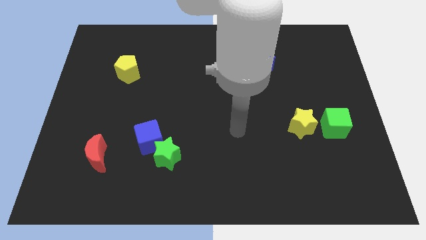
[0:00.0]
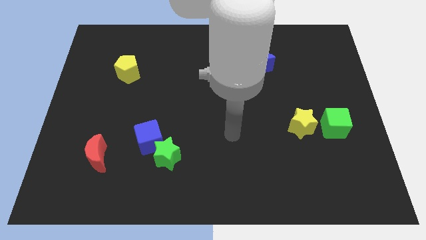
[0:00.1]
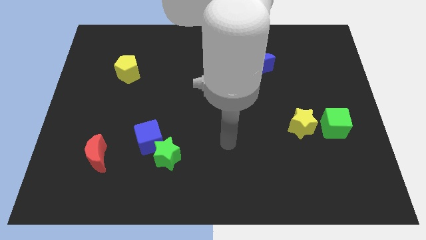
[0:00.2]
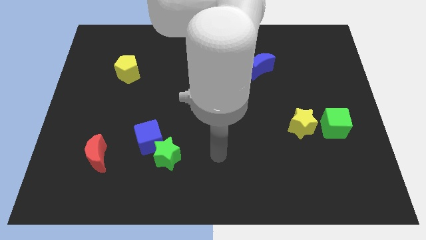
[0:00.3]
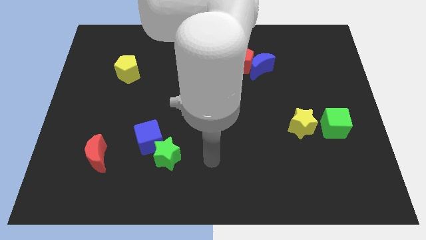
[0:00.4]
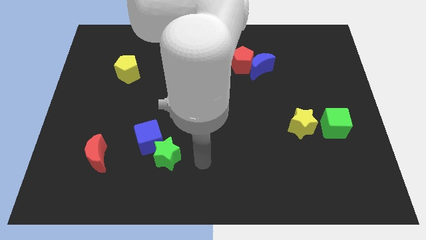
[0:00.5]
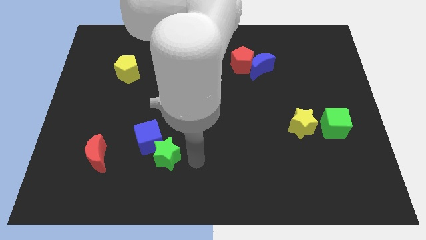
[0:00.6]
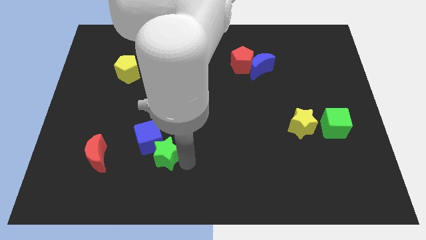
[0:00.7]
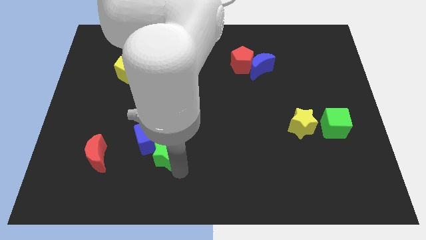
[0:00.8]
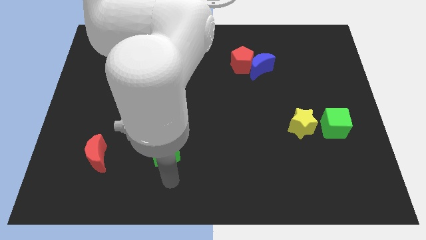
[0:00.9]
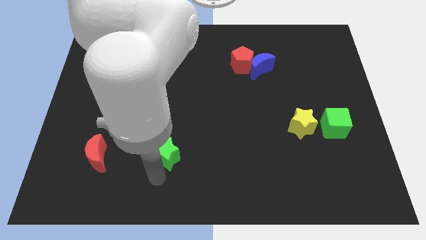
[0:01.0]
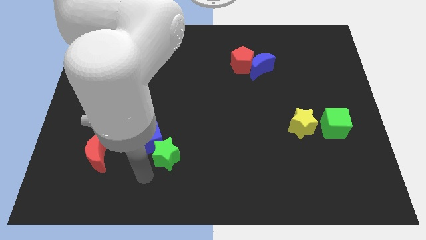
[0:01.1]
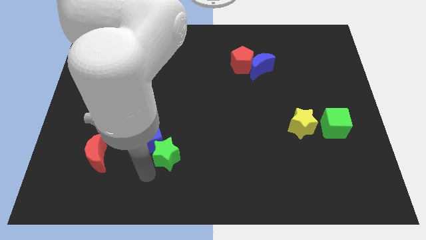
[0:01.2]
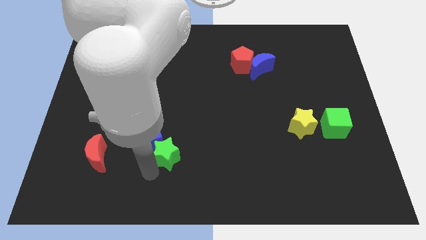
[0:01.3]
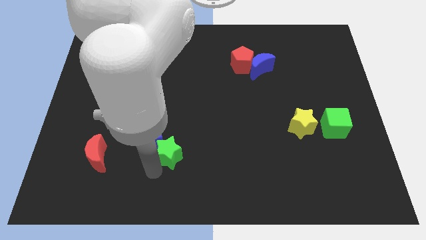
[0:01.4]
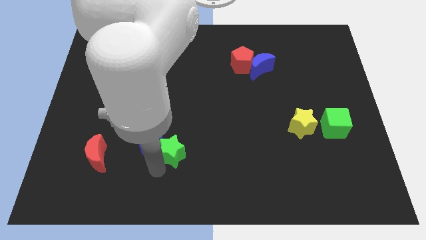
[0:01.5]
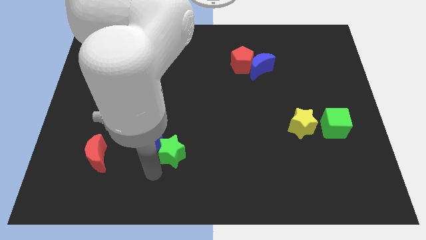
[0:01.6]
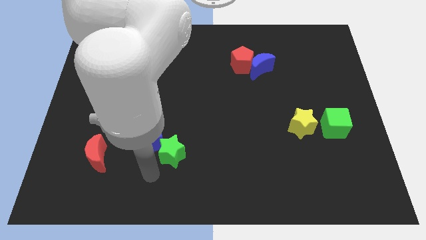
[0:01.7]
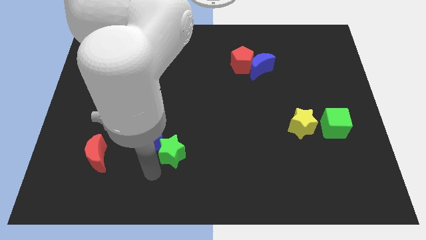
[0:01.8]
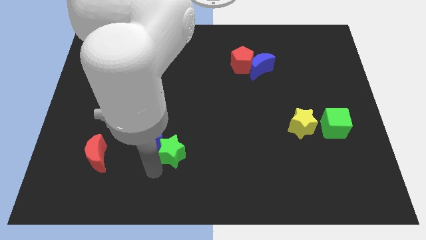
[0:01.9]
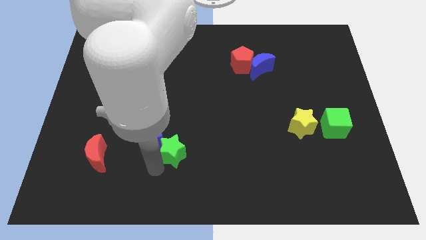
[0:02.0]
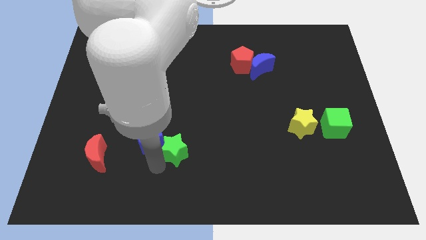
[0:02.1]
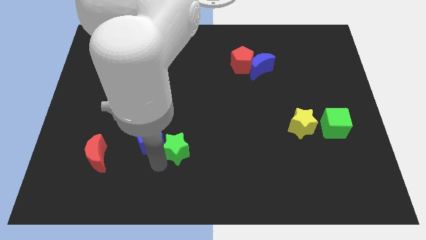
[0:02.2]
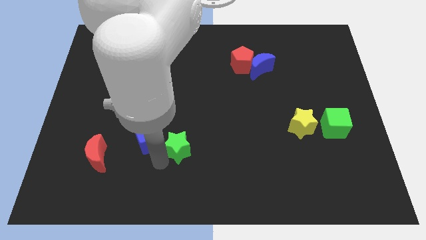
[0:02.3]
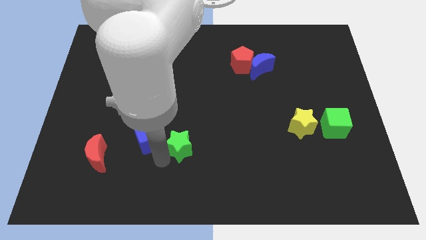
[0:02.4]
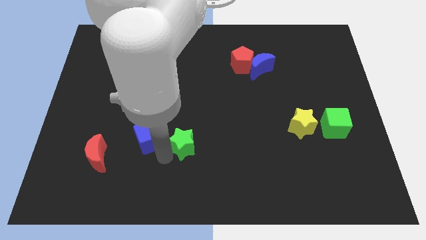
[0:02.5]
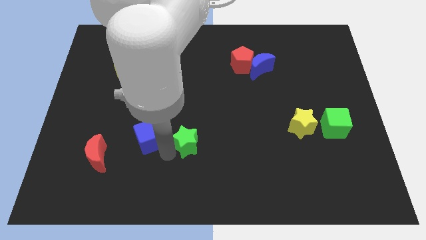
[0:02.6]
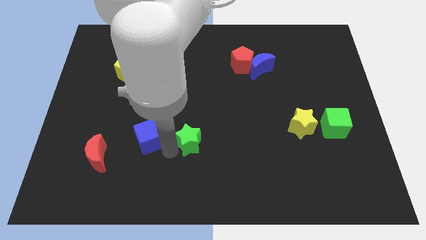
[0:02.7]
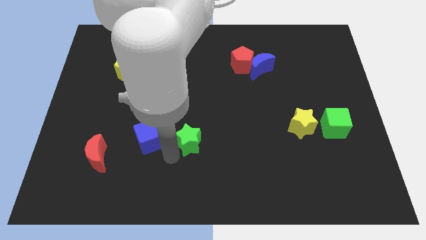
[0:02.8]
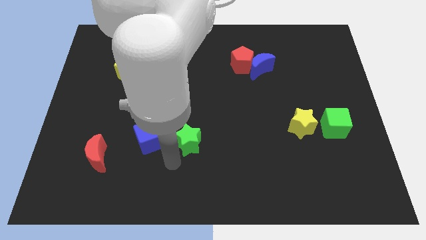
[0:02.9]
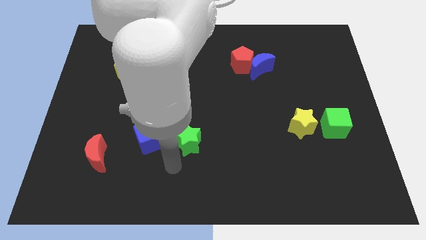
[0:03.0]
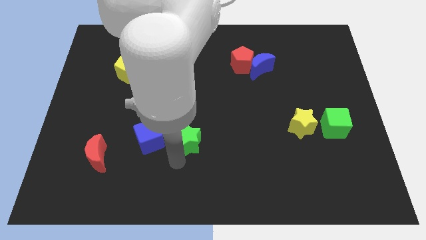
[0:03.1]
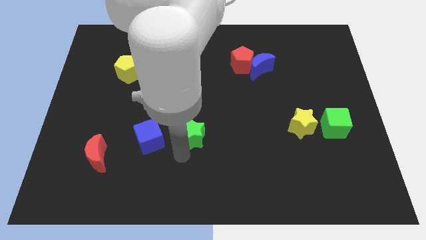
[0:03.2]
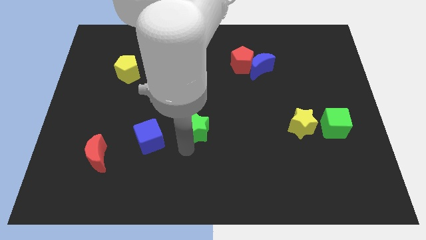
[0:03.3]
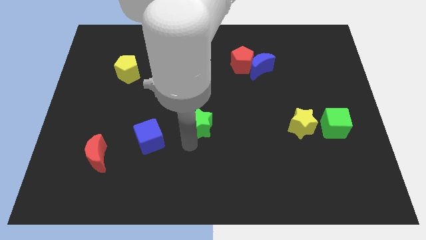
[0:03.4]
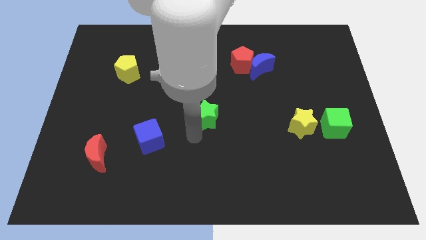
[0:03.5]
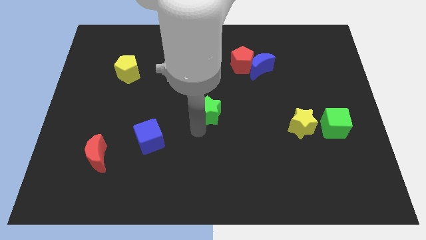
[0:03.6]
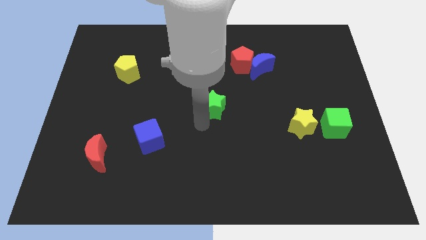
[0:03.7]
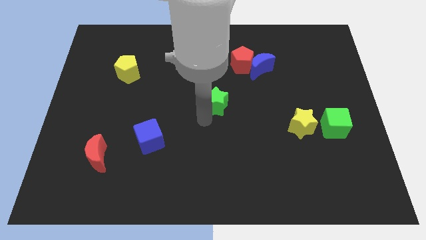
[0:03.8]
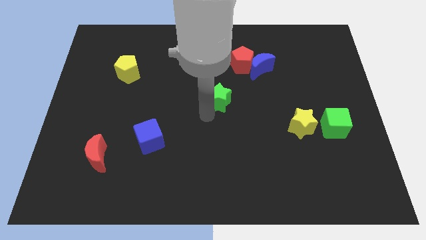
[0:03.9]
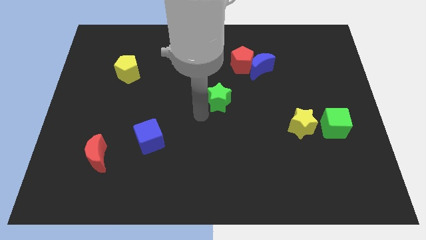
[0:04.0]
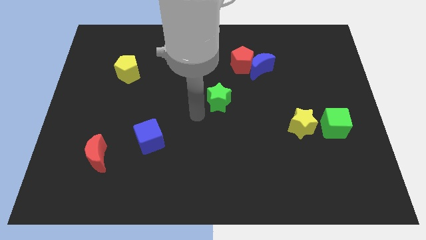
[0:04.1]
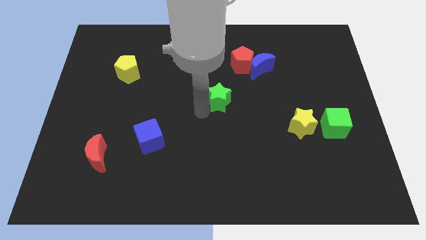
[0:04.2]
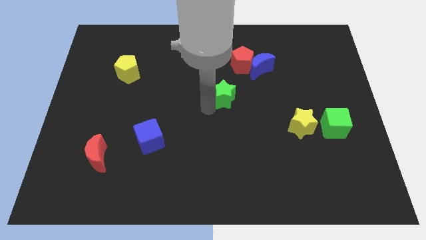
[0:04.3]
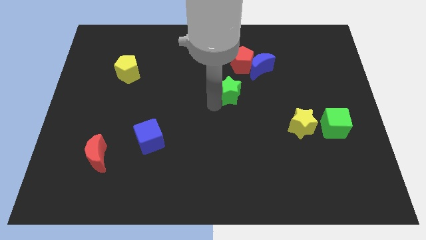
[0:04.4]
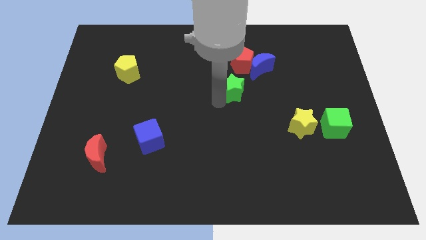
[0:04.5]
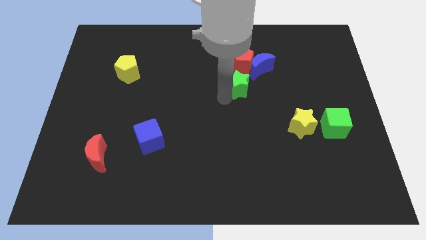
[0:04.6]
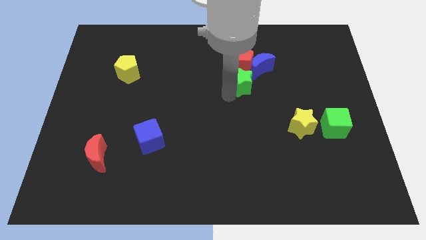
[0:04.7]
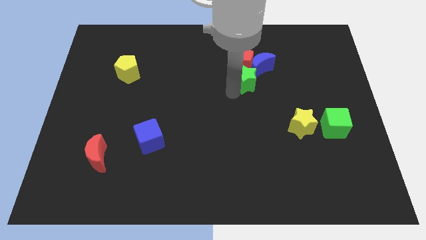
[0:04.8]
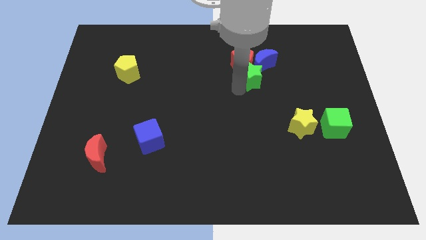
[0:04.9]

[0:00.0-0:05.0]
push the green star close to the blue moon

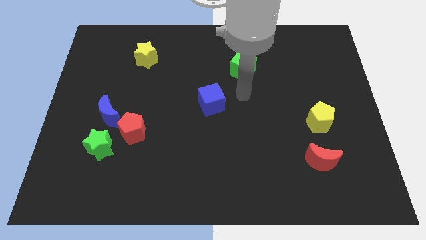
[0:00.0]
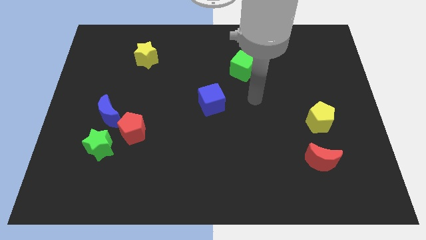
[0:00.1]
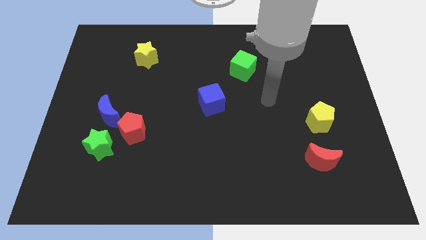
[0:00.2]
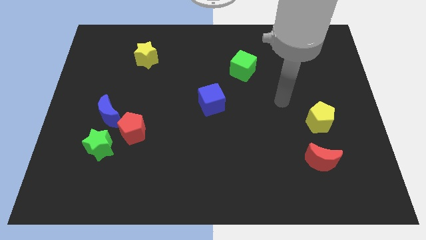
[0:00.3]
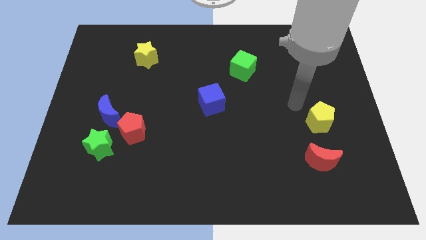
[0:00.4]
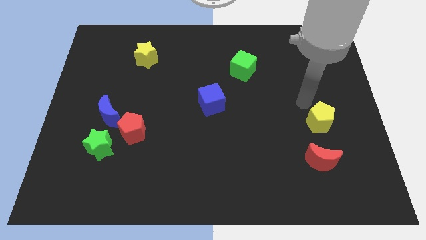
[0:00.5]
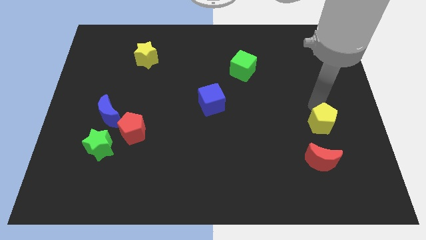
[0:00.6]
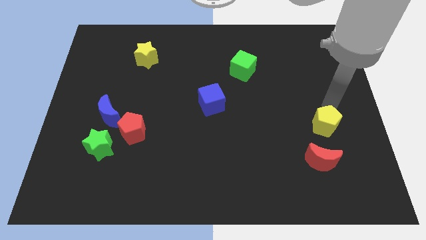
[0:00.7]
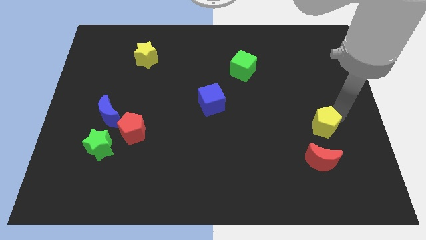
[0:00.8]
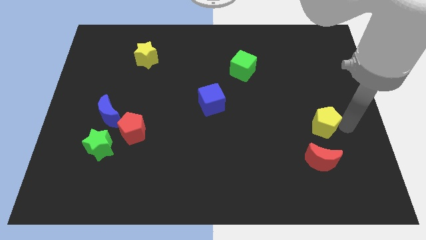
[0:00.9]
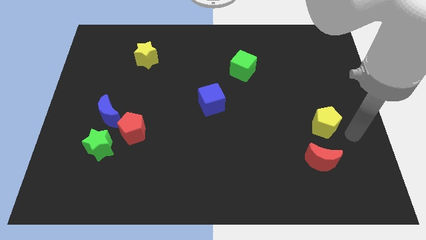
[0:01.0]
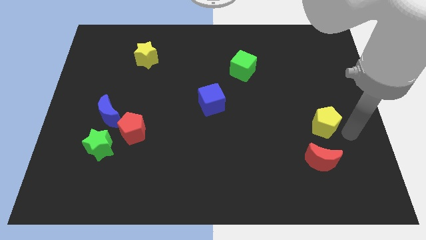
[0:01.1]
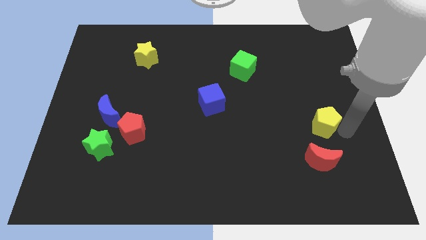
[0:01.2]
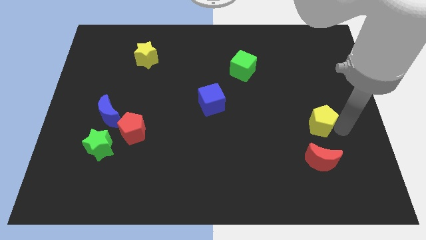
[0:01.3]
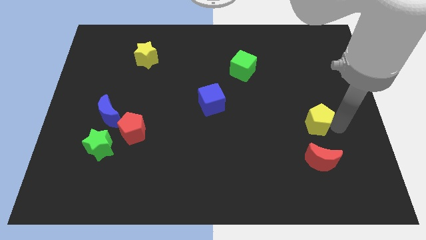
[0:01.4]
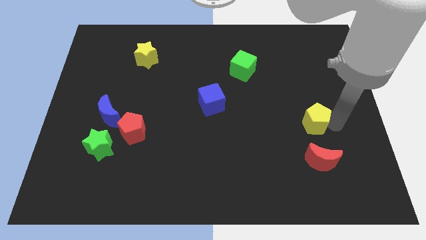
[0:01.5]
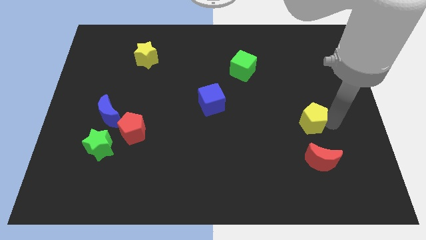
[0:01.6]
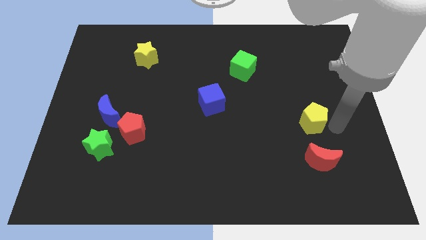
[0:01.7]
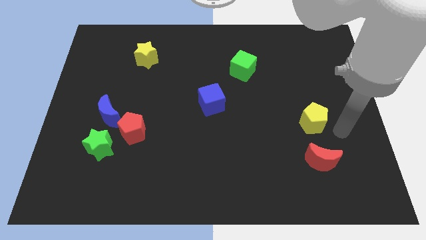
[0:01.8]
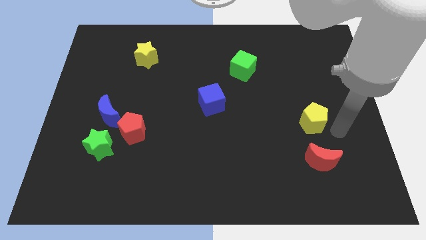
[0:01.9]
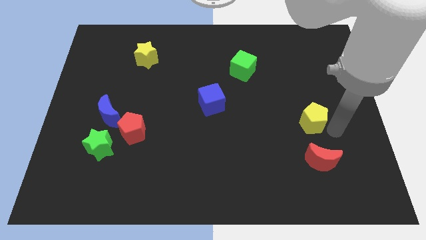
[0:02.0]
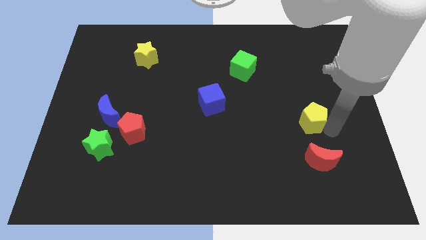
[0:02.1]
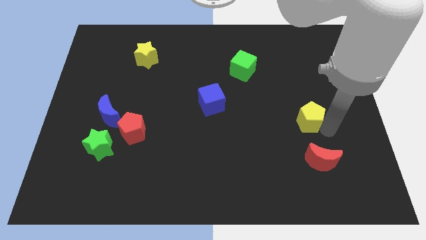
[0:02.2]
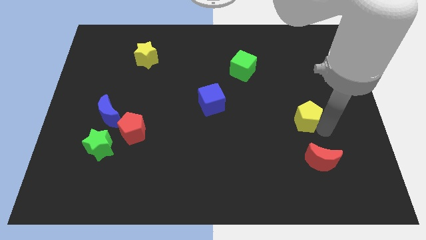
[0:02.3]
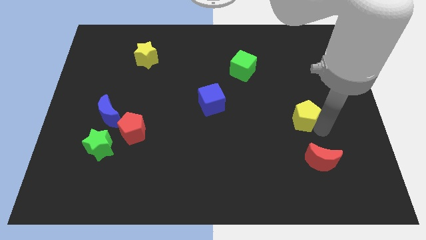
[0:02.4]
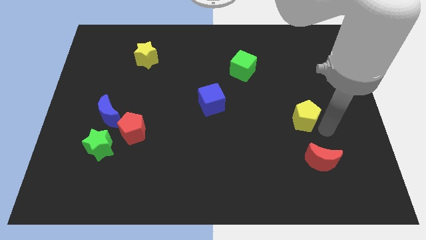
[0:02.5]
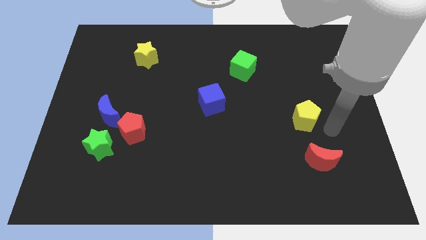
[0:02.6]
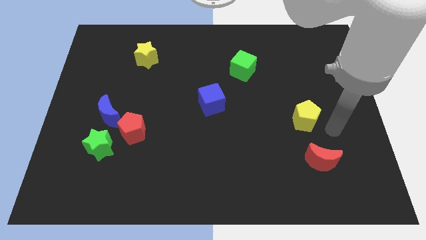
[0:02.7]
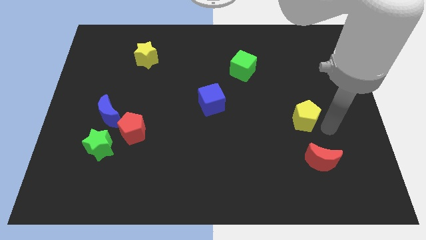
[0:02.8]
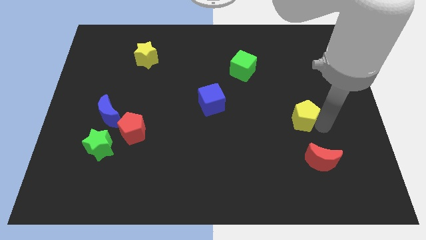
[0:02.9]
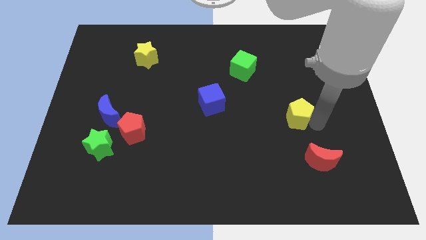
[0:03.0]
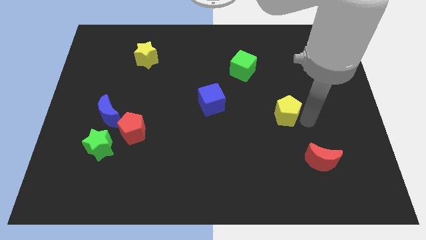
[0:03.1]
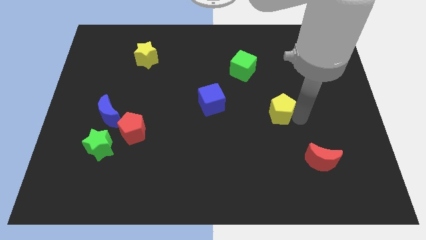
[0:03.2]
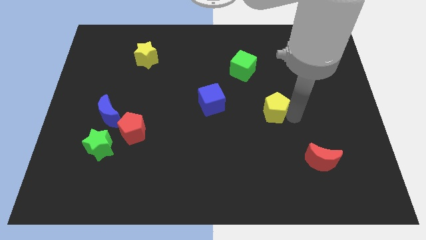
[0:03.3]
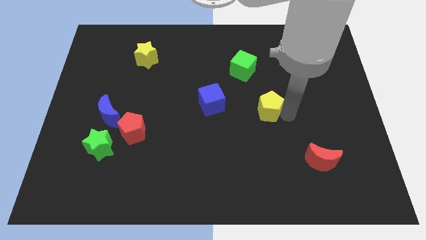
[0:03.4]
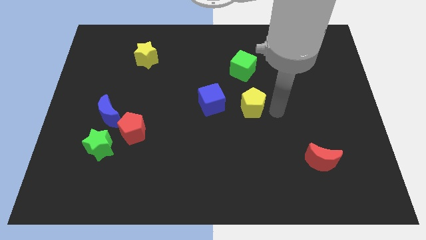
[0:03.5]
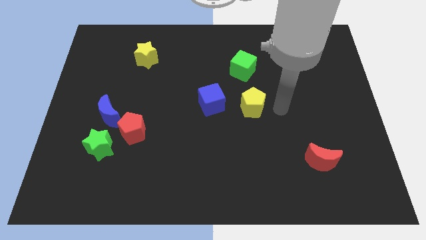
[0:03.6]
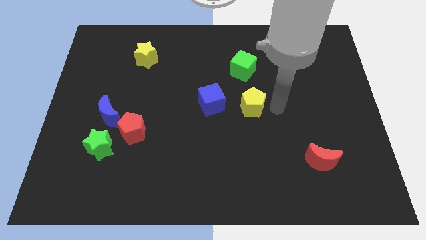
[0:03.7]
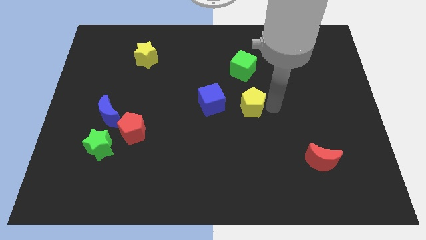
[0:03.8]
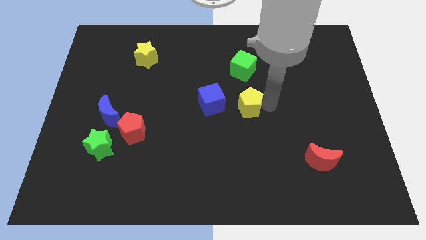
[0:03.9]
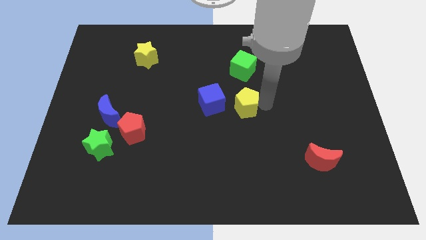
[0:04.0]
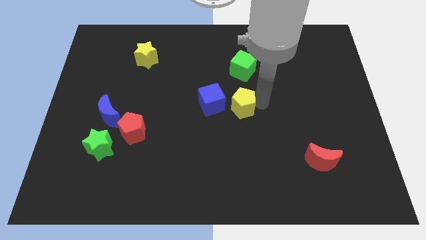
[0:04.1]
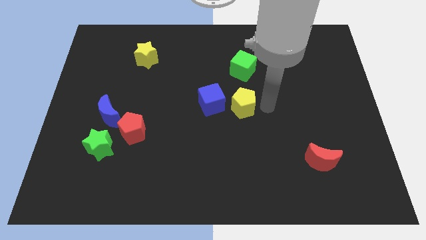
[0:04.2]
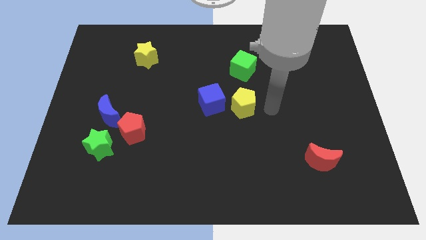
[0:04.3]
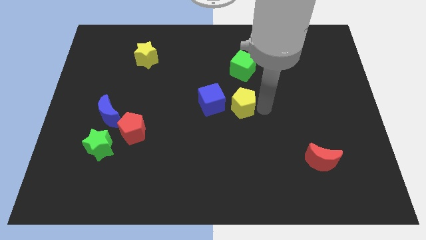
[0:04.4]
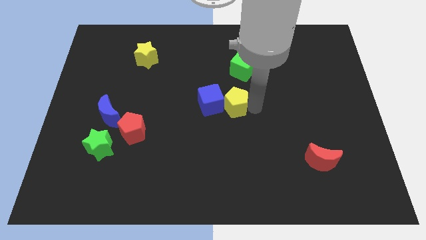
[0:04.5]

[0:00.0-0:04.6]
put the yellow pentagon close to the blue cube
